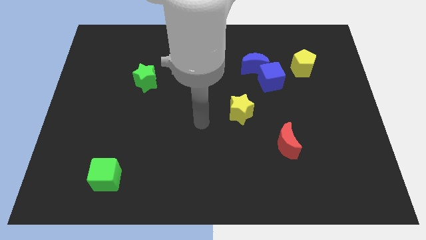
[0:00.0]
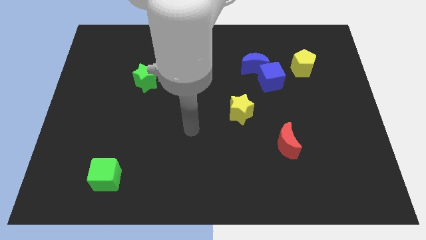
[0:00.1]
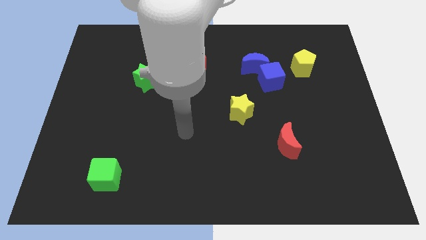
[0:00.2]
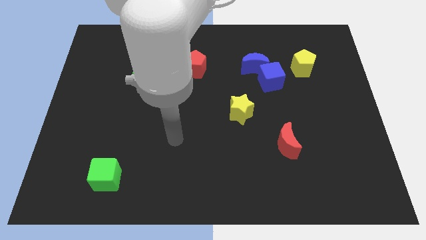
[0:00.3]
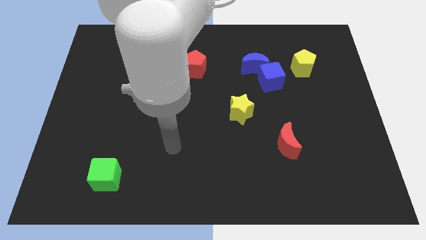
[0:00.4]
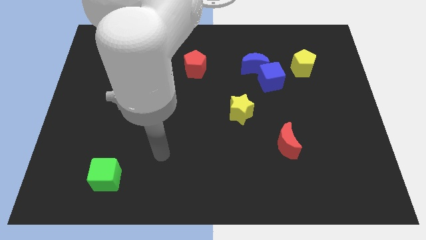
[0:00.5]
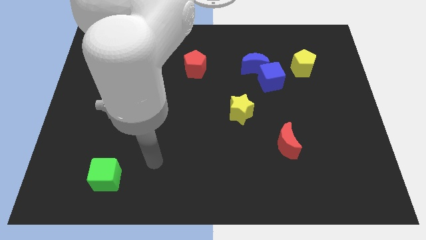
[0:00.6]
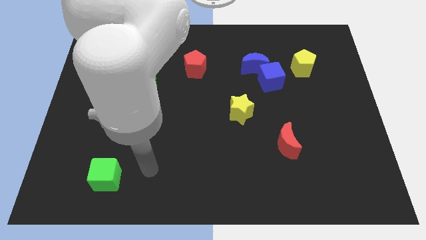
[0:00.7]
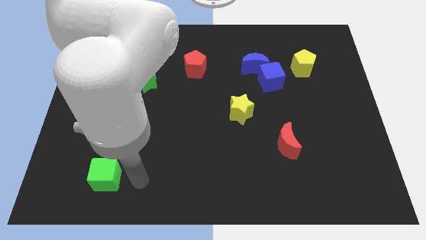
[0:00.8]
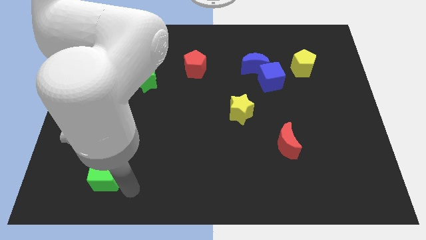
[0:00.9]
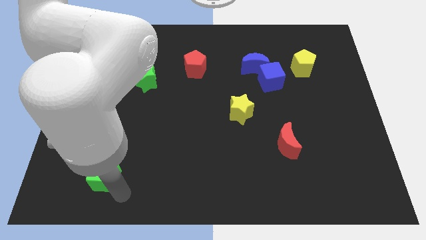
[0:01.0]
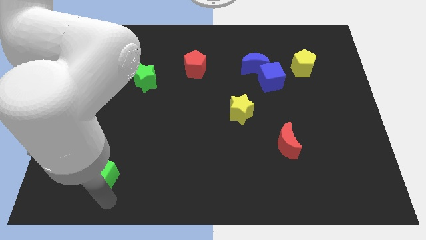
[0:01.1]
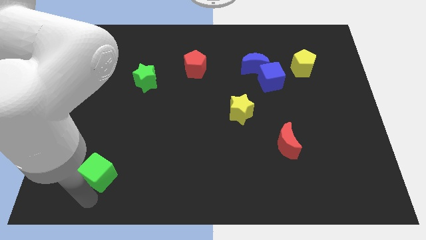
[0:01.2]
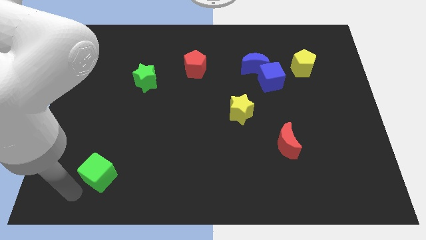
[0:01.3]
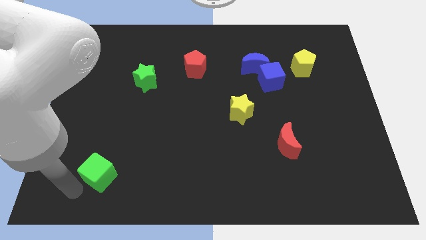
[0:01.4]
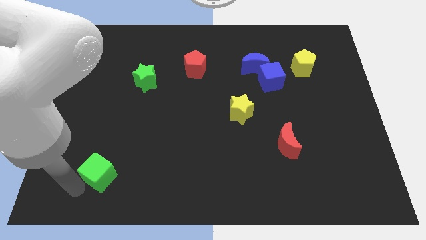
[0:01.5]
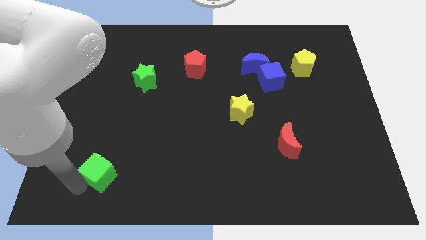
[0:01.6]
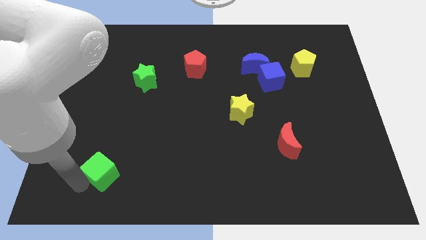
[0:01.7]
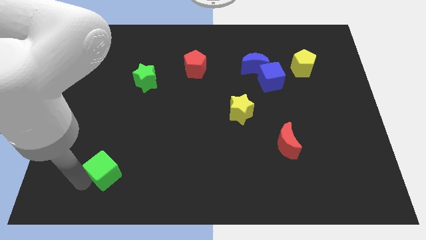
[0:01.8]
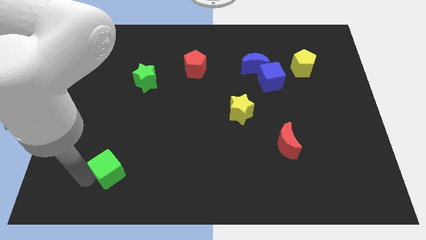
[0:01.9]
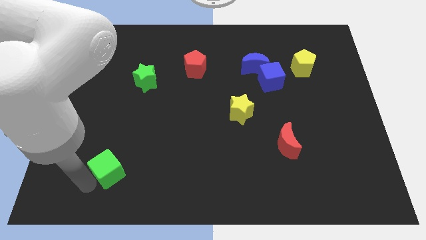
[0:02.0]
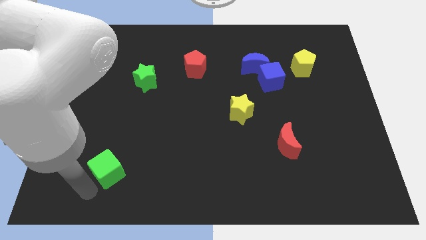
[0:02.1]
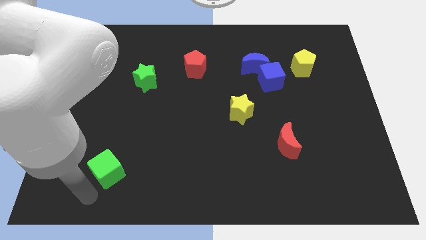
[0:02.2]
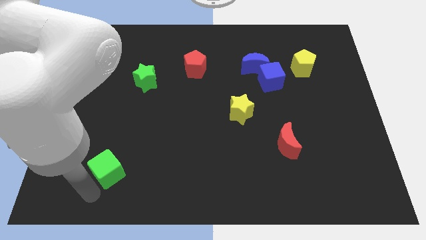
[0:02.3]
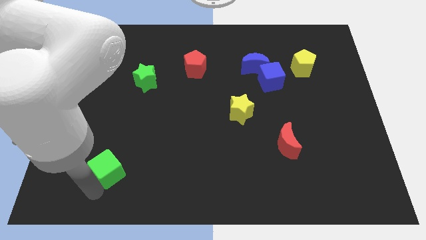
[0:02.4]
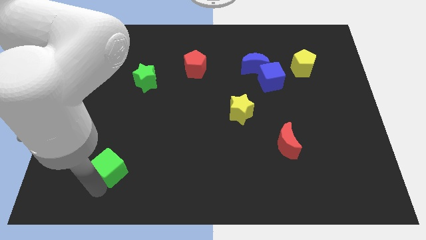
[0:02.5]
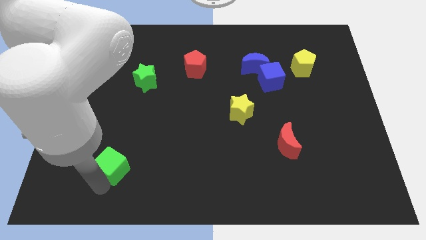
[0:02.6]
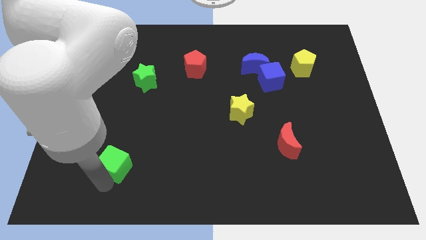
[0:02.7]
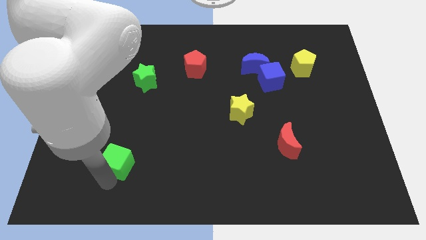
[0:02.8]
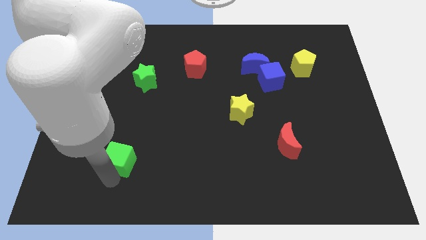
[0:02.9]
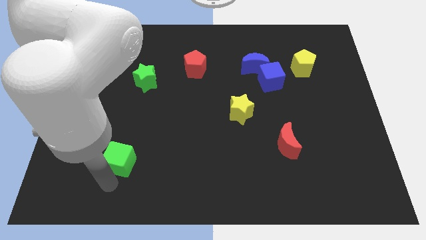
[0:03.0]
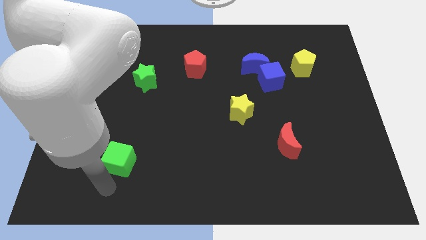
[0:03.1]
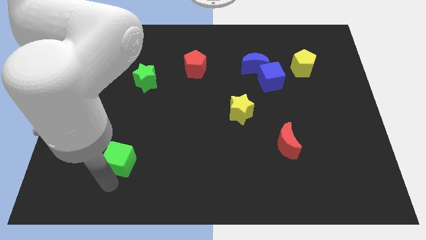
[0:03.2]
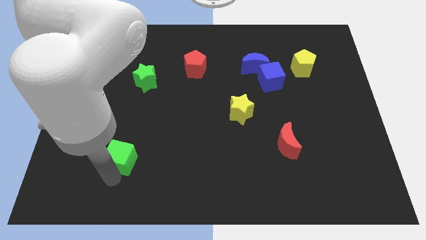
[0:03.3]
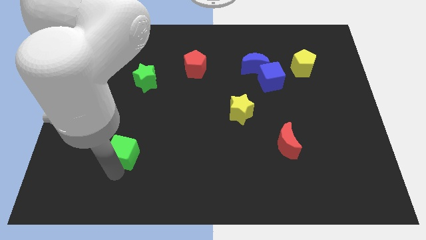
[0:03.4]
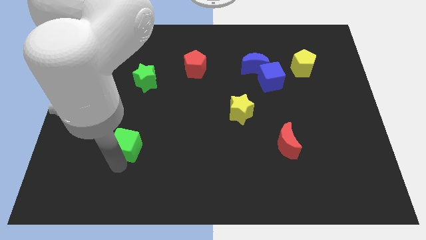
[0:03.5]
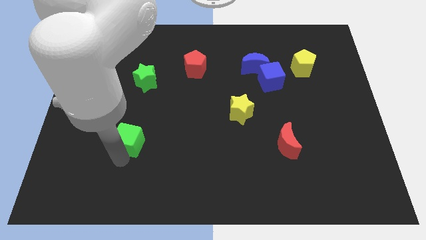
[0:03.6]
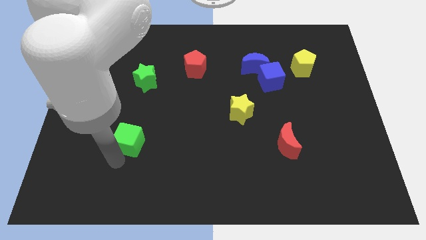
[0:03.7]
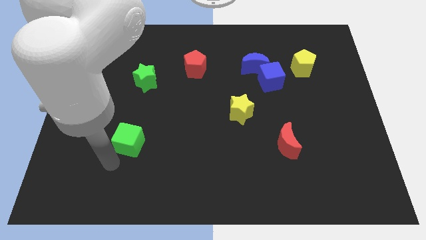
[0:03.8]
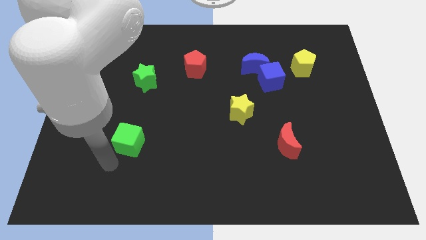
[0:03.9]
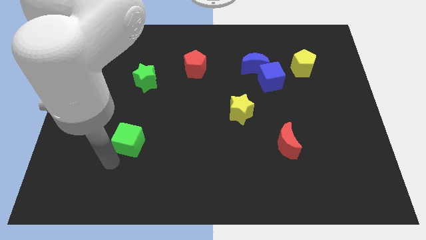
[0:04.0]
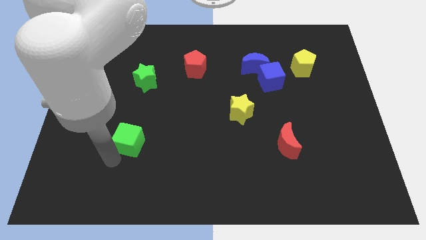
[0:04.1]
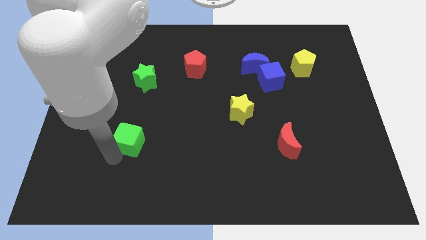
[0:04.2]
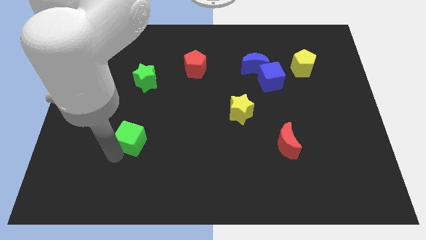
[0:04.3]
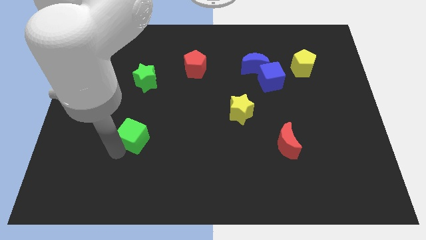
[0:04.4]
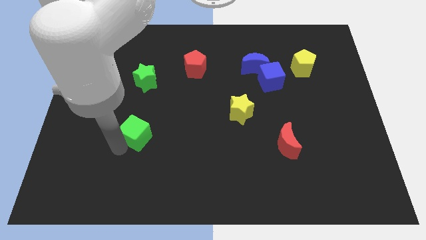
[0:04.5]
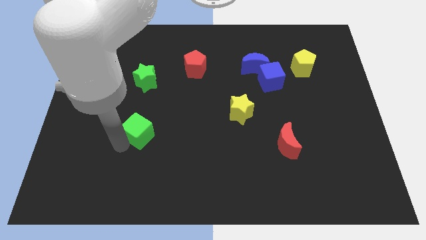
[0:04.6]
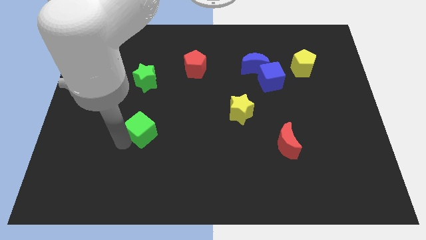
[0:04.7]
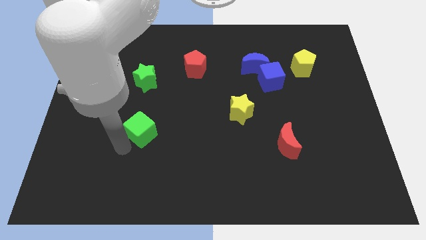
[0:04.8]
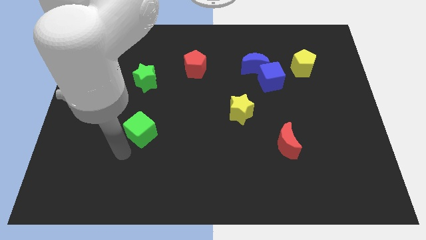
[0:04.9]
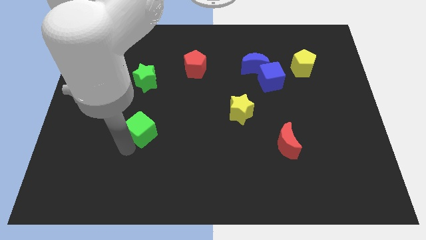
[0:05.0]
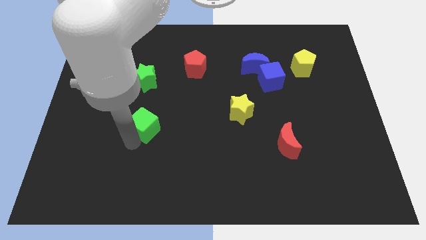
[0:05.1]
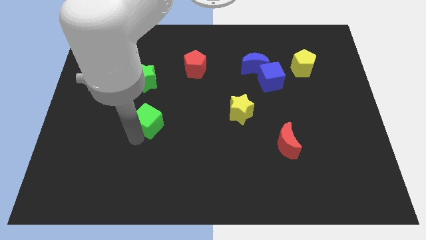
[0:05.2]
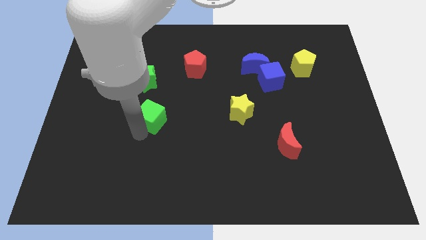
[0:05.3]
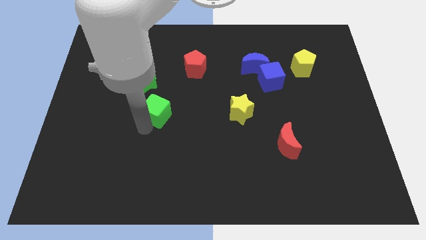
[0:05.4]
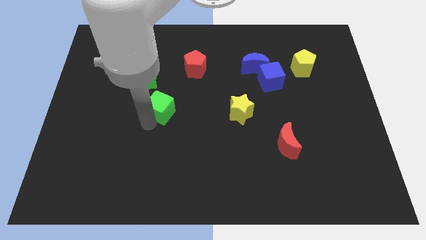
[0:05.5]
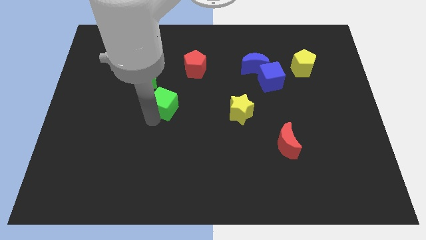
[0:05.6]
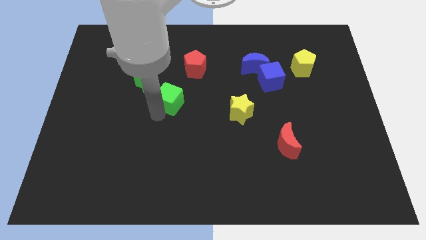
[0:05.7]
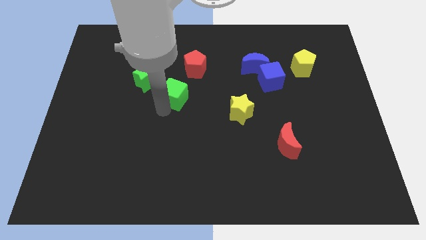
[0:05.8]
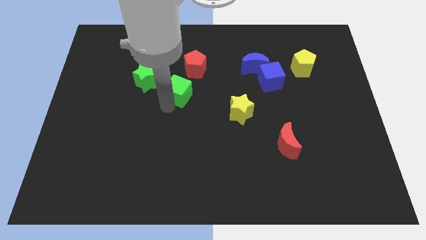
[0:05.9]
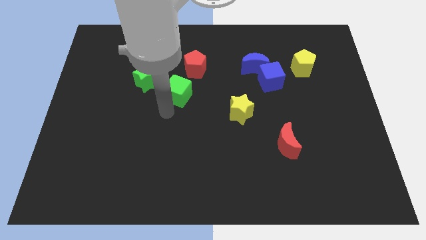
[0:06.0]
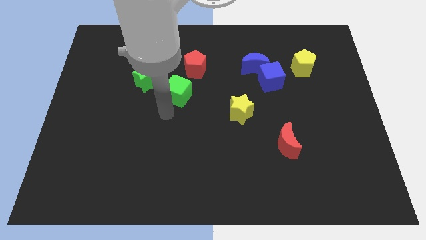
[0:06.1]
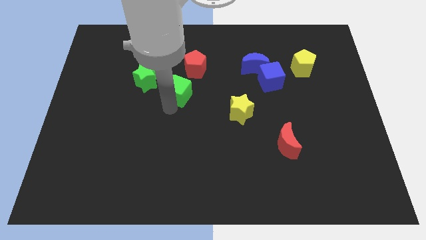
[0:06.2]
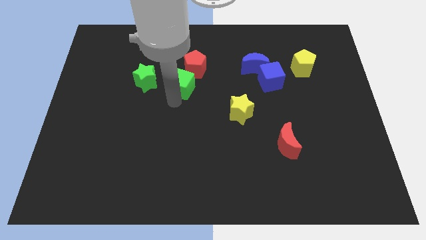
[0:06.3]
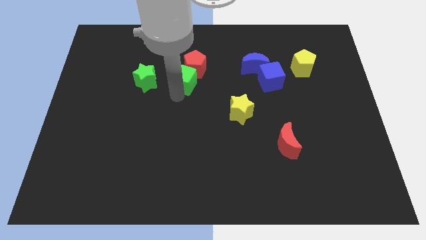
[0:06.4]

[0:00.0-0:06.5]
push the green cube to the red pentagon

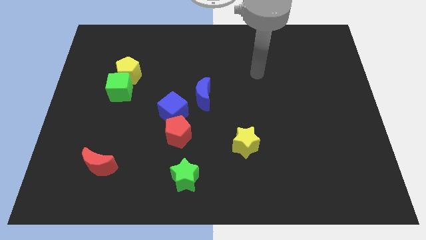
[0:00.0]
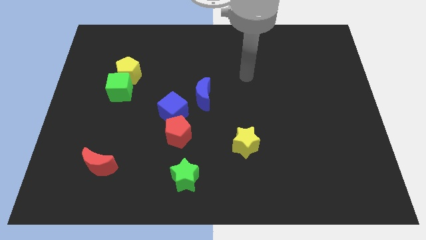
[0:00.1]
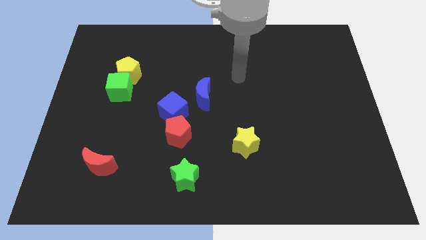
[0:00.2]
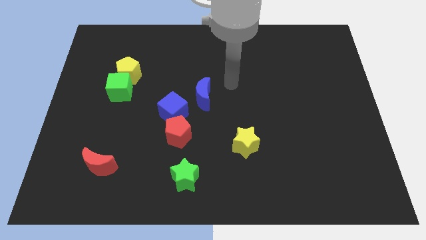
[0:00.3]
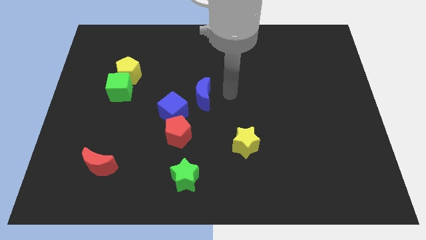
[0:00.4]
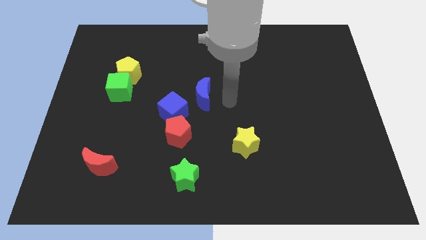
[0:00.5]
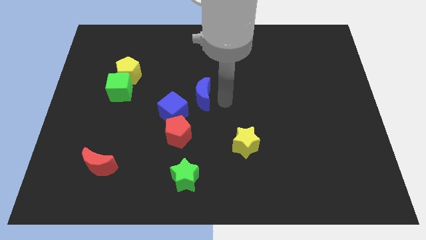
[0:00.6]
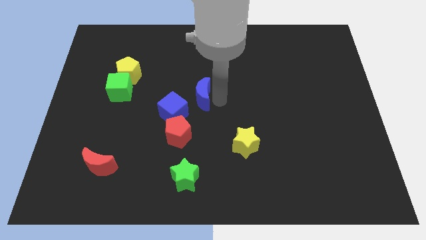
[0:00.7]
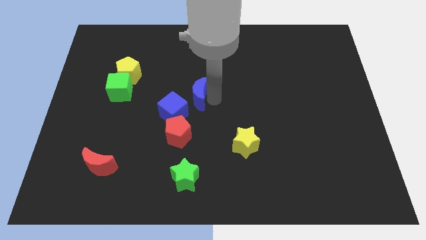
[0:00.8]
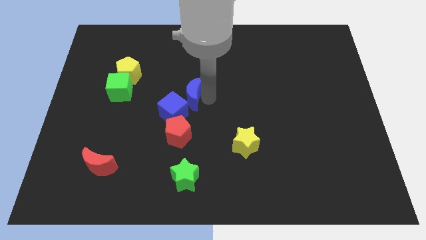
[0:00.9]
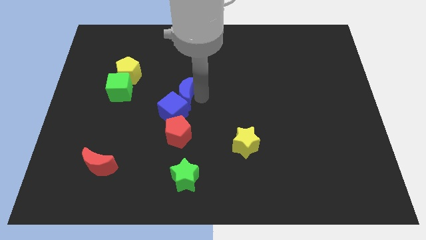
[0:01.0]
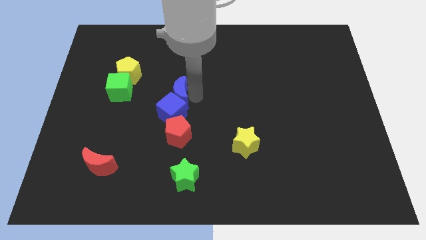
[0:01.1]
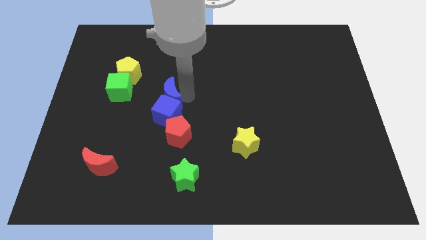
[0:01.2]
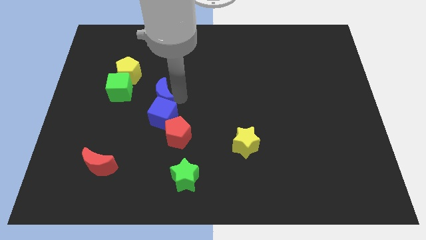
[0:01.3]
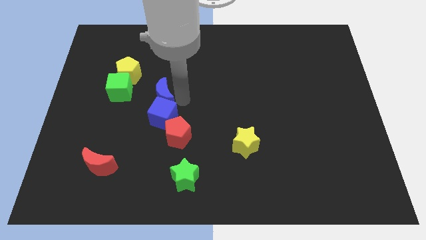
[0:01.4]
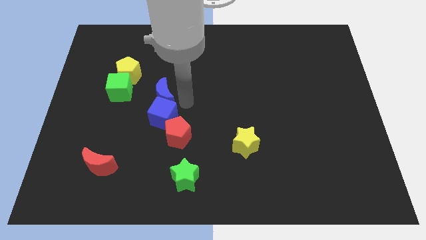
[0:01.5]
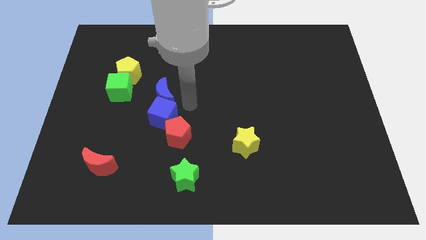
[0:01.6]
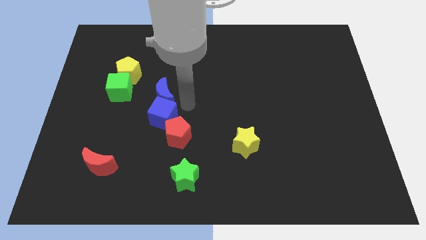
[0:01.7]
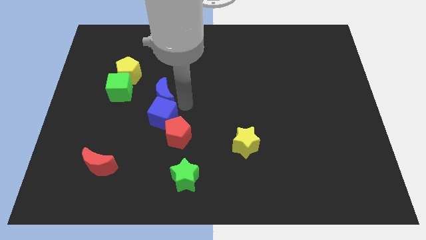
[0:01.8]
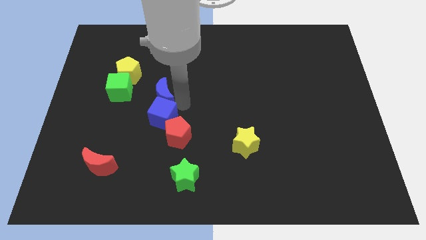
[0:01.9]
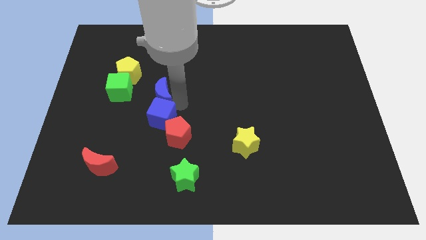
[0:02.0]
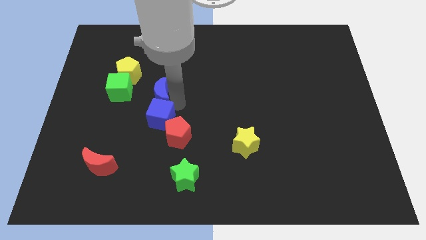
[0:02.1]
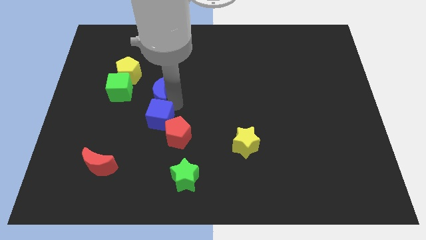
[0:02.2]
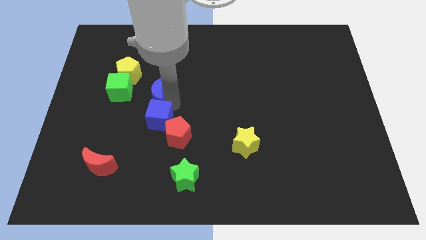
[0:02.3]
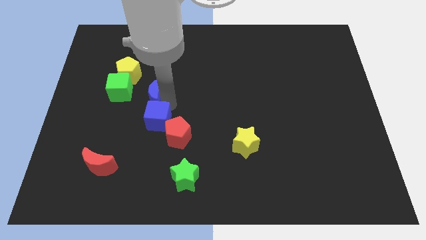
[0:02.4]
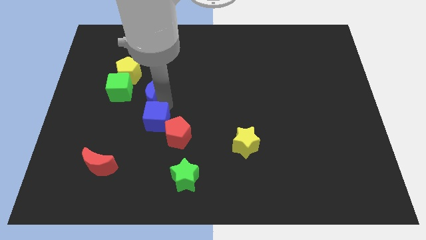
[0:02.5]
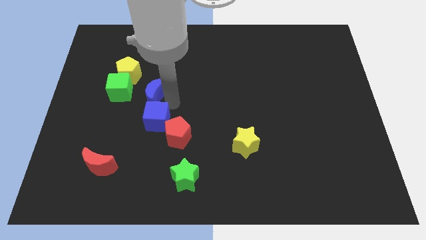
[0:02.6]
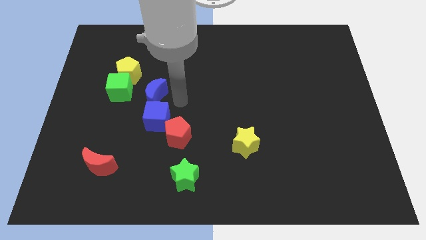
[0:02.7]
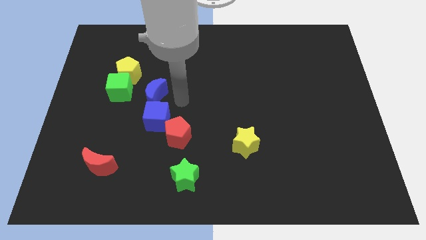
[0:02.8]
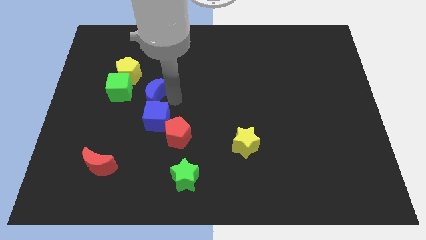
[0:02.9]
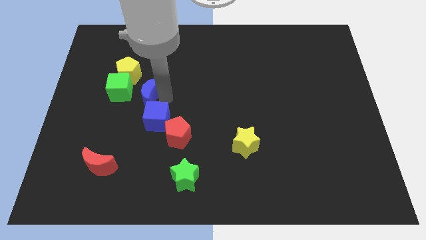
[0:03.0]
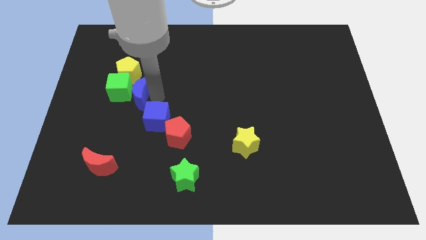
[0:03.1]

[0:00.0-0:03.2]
slide the blue moon to the green cube
